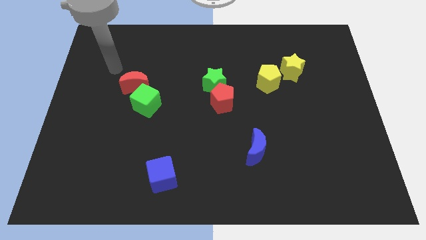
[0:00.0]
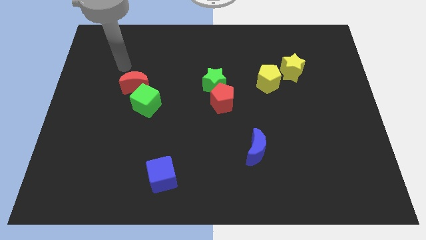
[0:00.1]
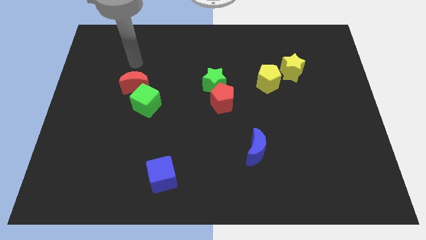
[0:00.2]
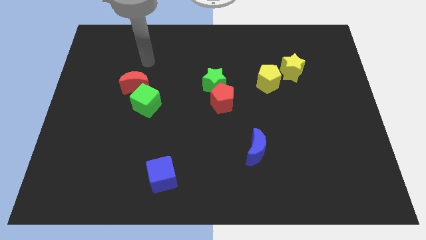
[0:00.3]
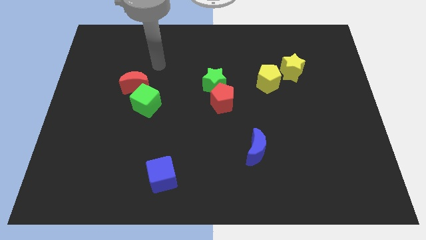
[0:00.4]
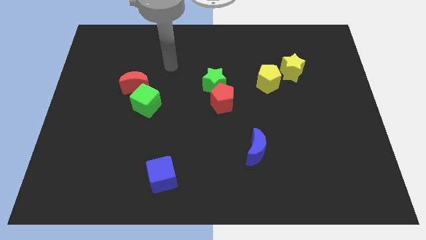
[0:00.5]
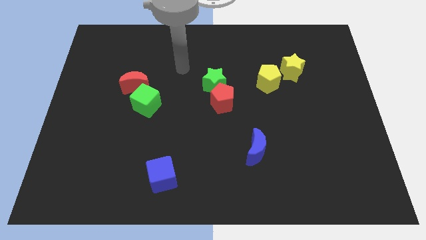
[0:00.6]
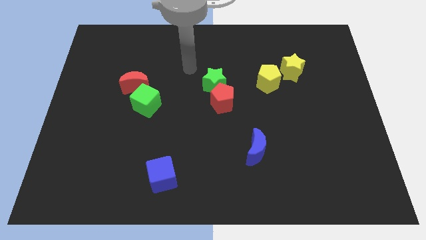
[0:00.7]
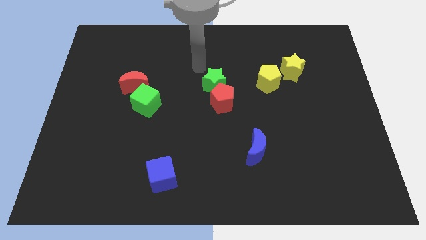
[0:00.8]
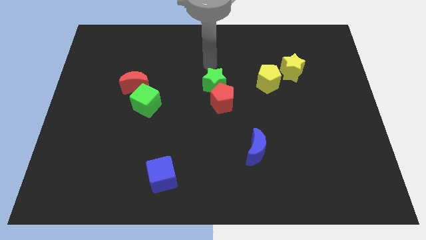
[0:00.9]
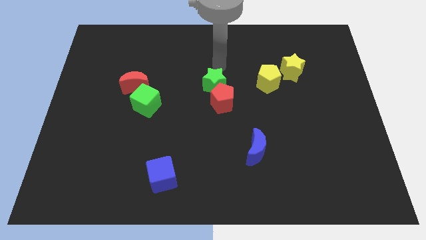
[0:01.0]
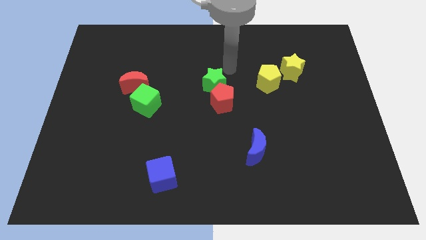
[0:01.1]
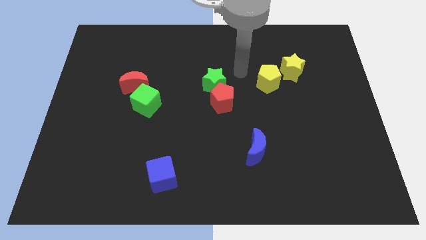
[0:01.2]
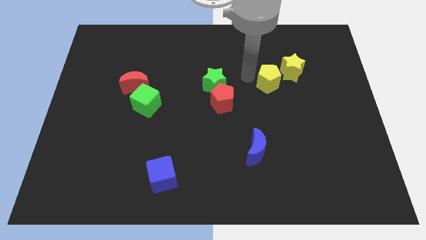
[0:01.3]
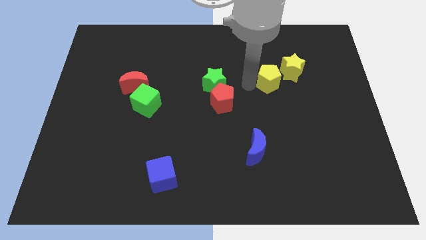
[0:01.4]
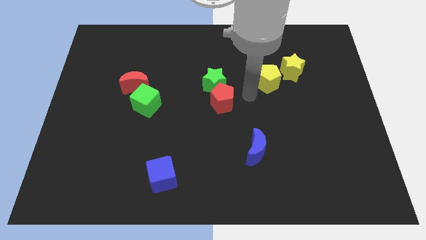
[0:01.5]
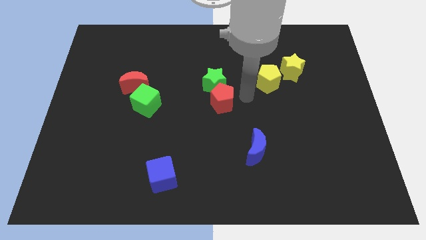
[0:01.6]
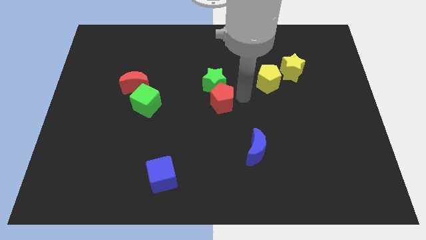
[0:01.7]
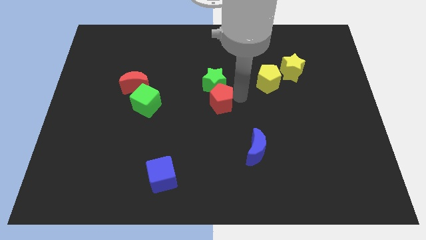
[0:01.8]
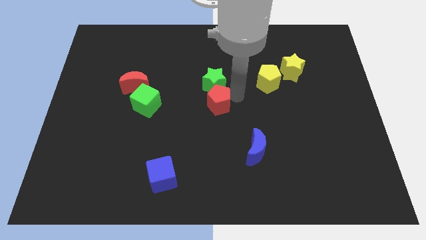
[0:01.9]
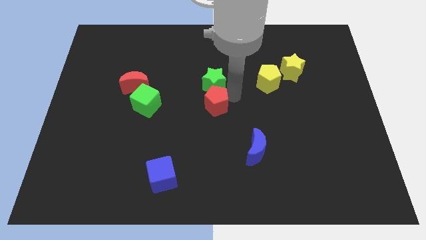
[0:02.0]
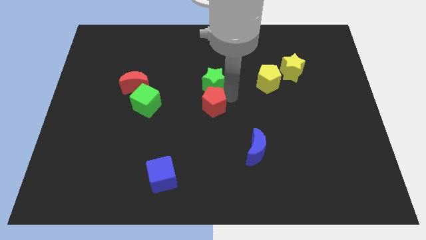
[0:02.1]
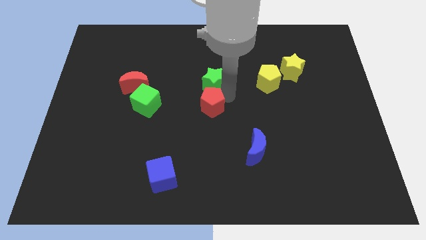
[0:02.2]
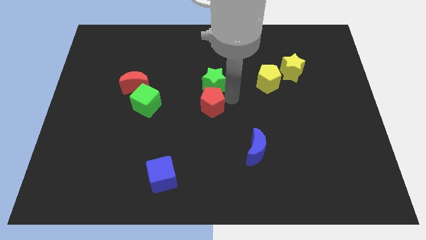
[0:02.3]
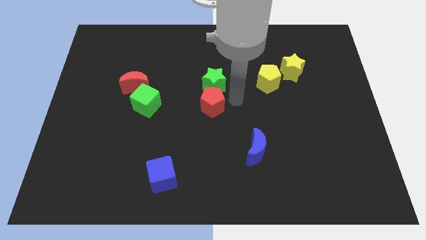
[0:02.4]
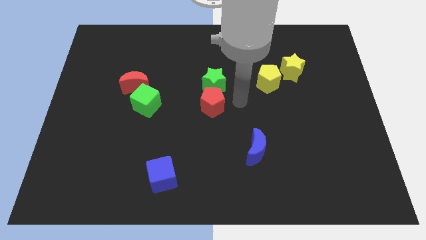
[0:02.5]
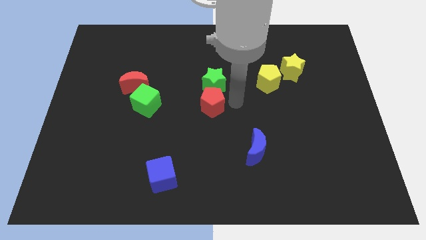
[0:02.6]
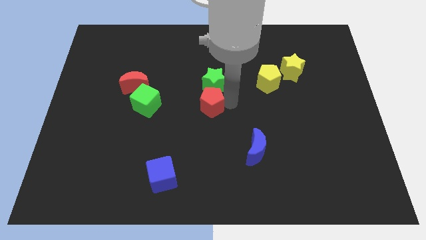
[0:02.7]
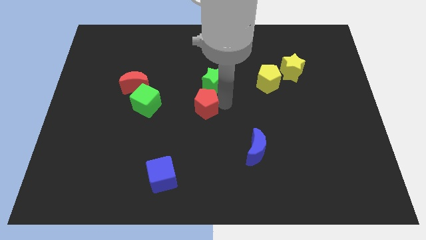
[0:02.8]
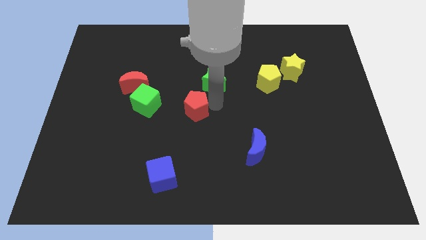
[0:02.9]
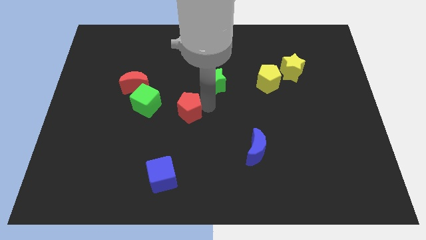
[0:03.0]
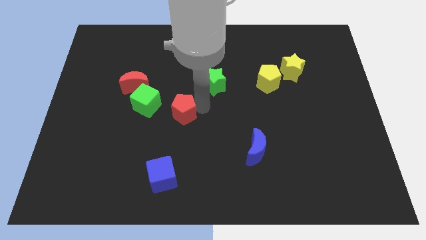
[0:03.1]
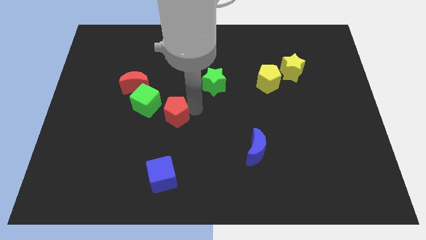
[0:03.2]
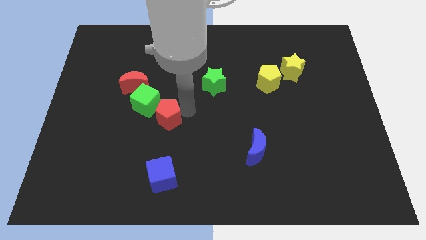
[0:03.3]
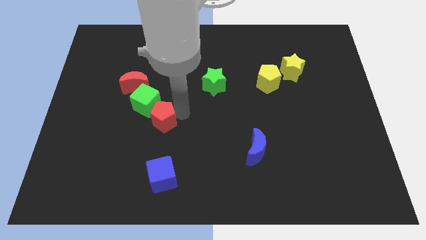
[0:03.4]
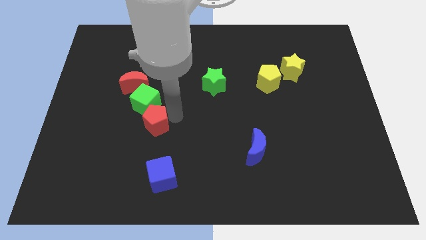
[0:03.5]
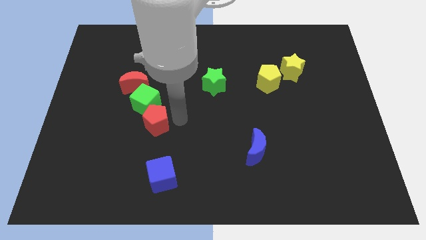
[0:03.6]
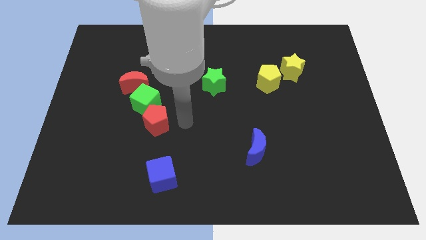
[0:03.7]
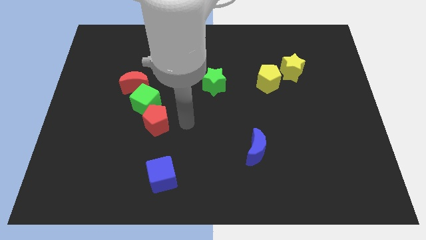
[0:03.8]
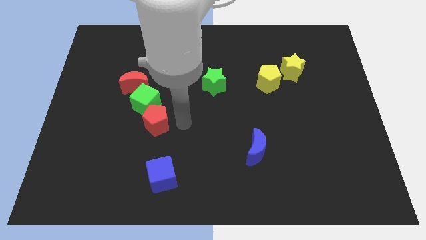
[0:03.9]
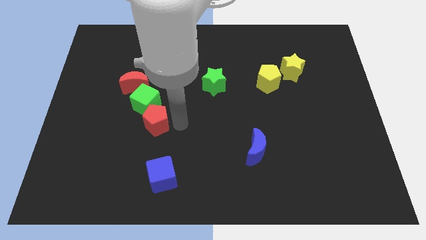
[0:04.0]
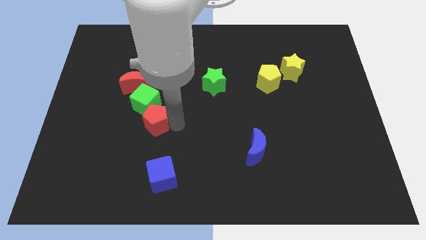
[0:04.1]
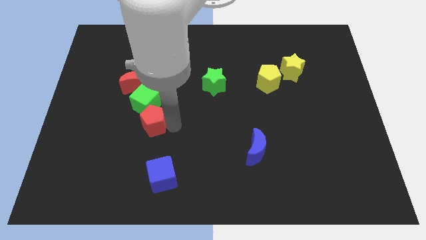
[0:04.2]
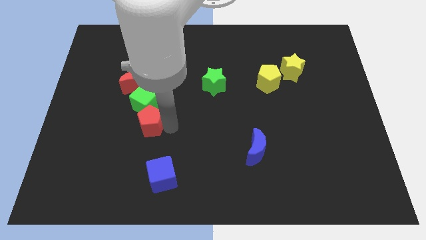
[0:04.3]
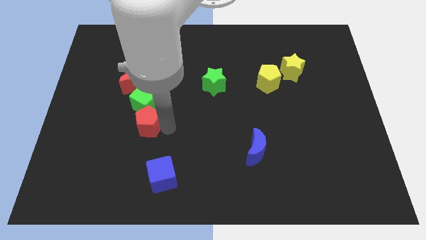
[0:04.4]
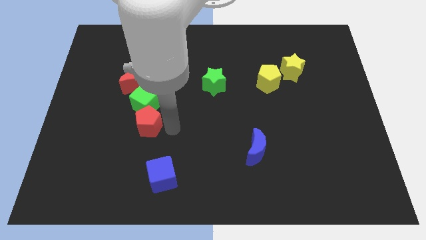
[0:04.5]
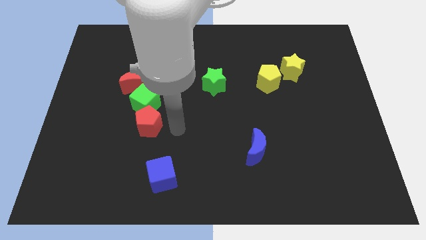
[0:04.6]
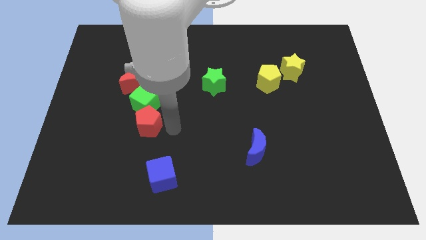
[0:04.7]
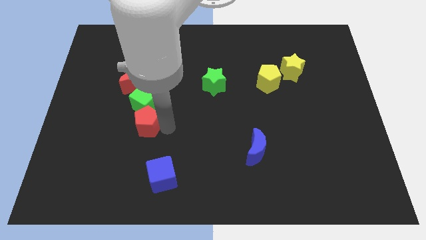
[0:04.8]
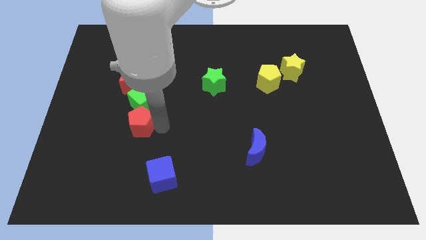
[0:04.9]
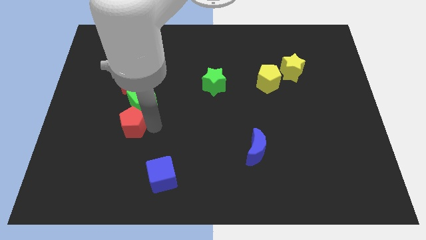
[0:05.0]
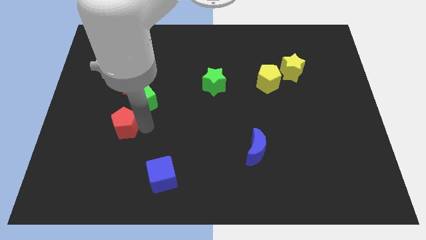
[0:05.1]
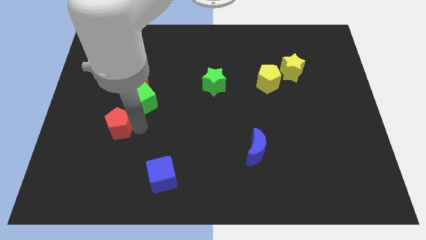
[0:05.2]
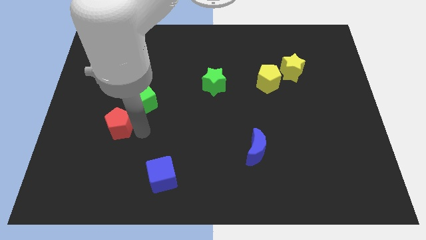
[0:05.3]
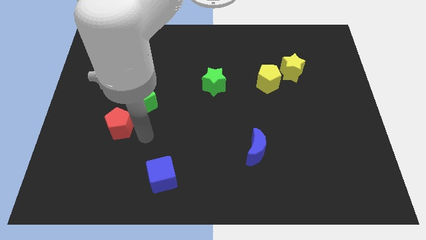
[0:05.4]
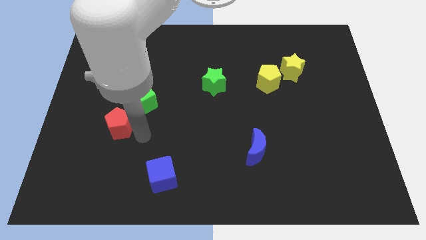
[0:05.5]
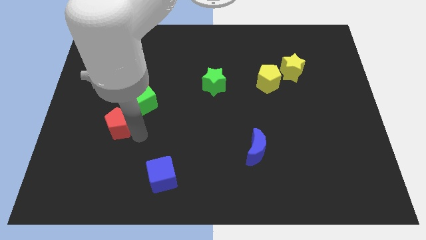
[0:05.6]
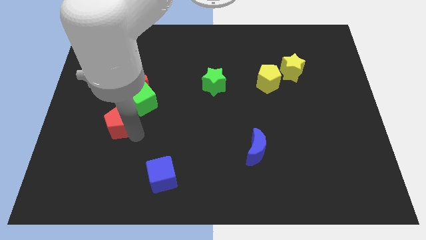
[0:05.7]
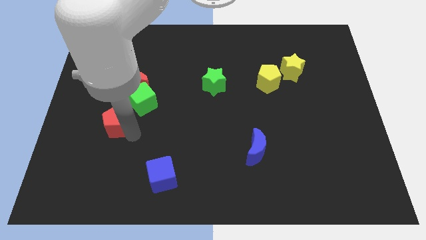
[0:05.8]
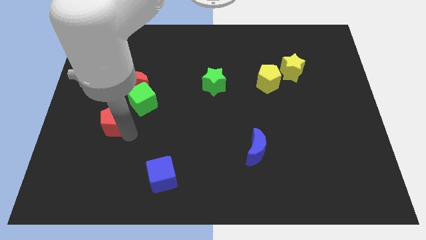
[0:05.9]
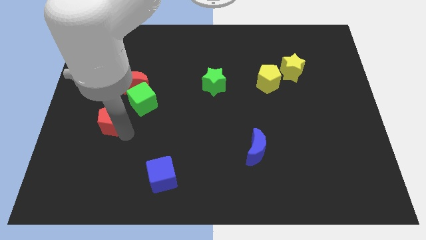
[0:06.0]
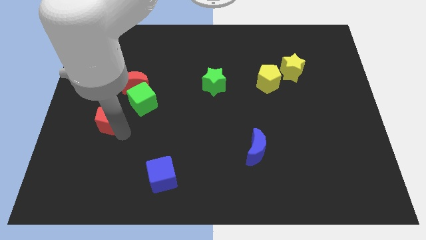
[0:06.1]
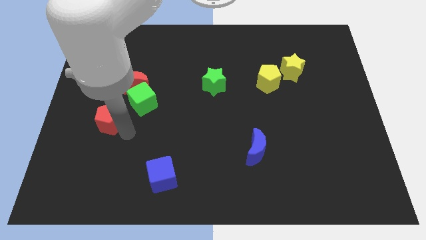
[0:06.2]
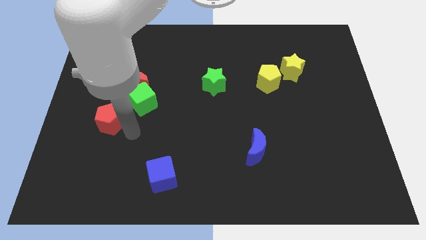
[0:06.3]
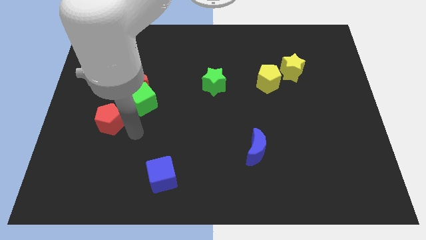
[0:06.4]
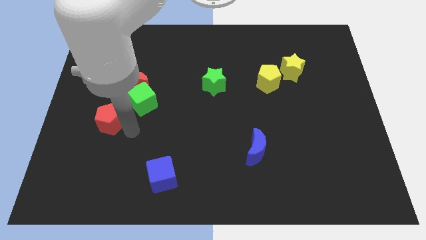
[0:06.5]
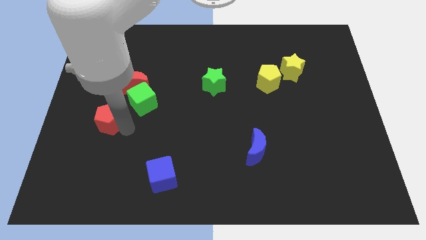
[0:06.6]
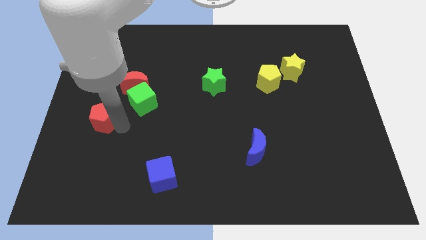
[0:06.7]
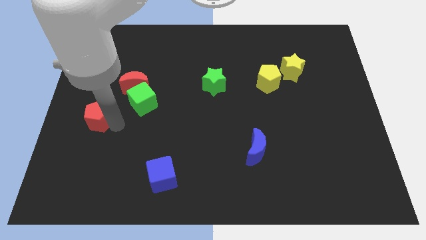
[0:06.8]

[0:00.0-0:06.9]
put the red pentagon to the left side
